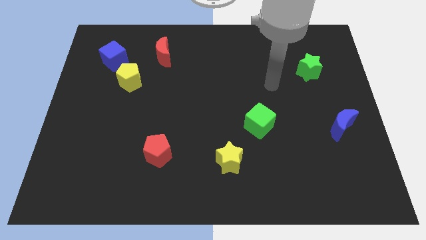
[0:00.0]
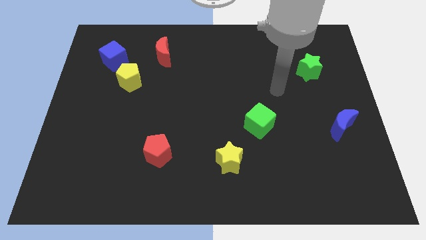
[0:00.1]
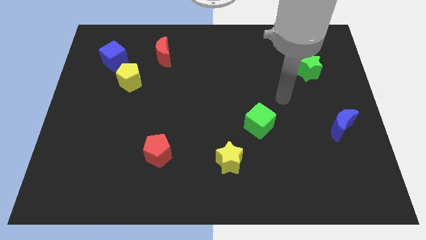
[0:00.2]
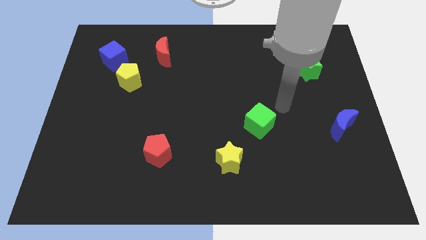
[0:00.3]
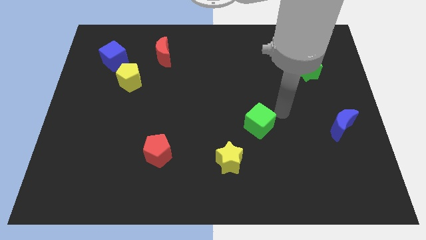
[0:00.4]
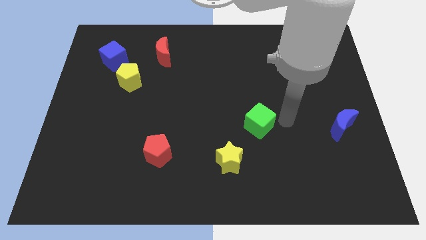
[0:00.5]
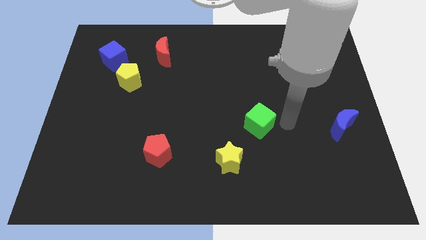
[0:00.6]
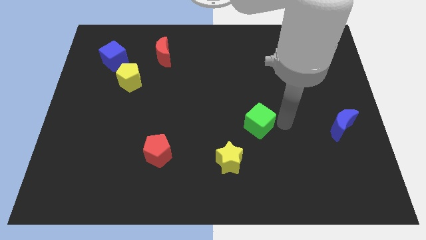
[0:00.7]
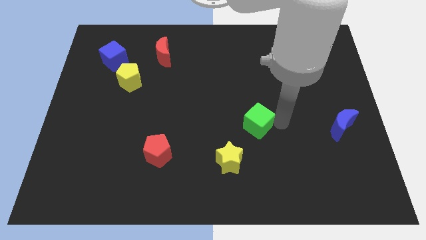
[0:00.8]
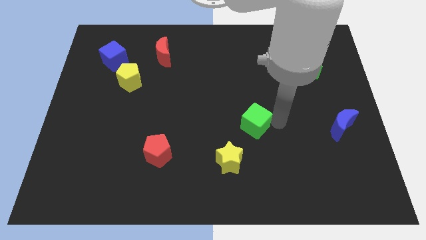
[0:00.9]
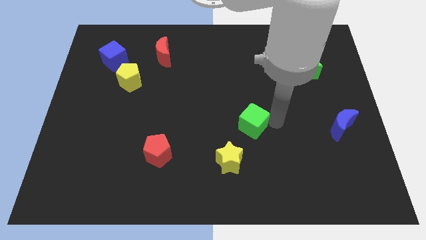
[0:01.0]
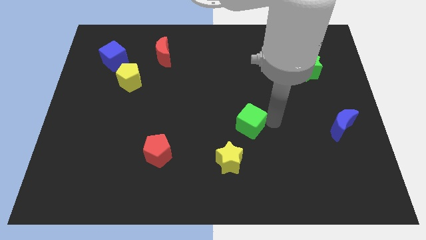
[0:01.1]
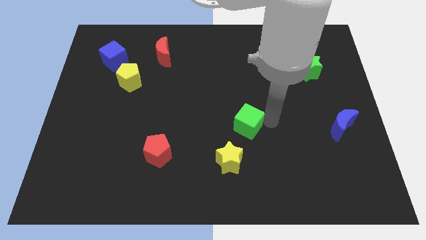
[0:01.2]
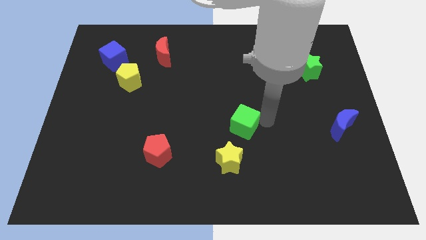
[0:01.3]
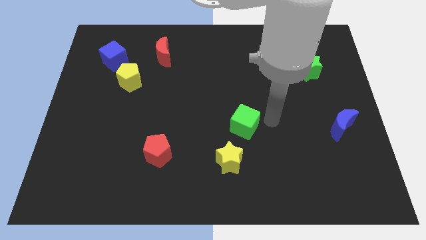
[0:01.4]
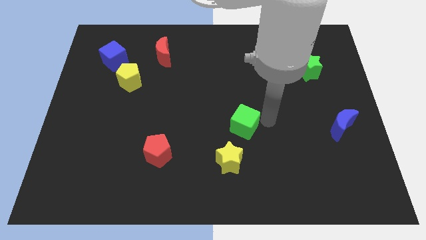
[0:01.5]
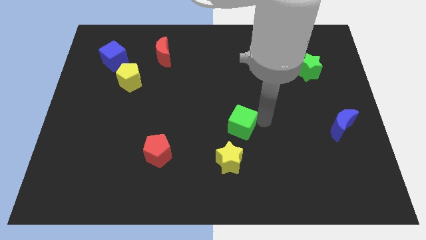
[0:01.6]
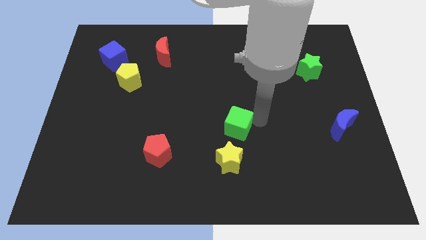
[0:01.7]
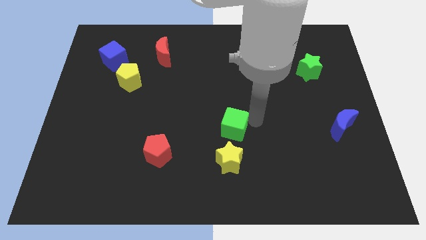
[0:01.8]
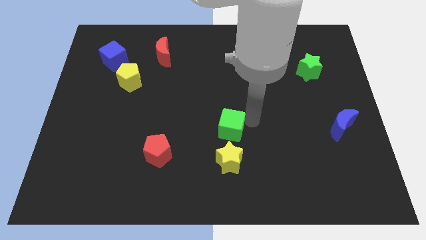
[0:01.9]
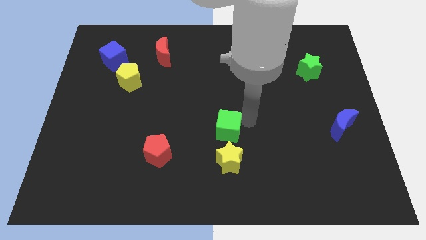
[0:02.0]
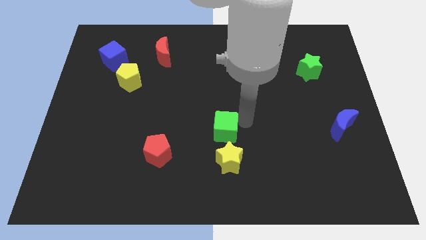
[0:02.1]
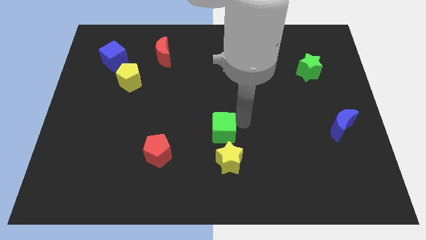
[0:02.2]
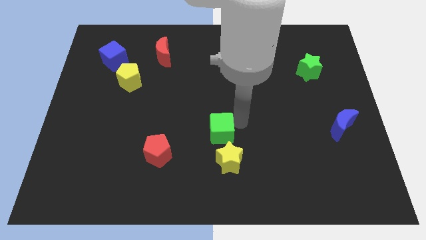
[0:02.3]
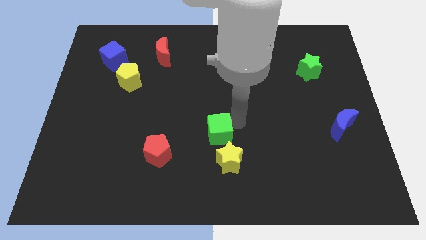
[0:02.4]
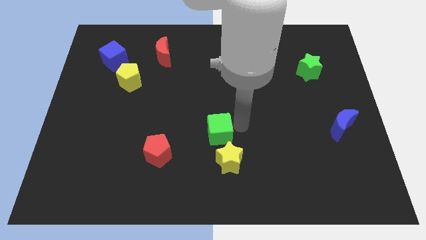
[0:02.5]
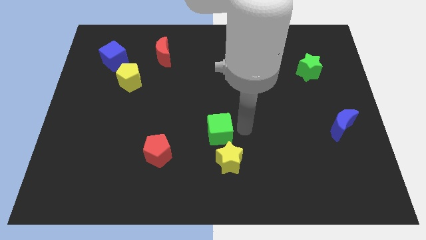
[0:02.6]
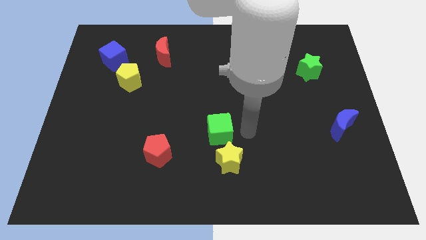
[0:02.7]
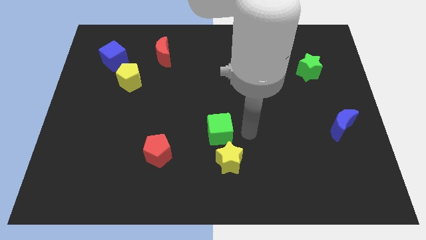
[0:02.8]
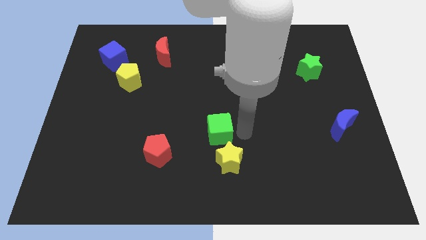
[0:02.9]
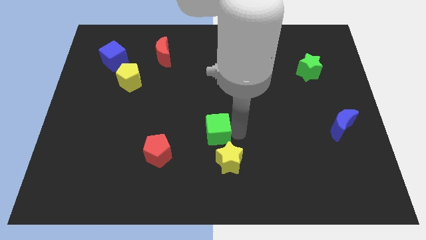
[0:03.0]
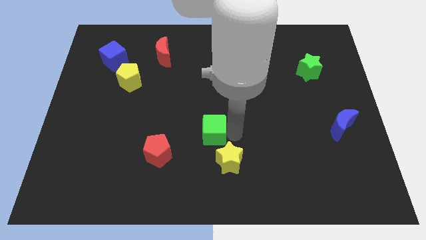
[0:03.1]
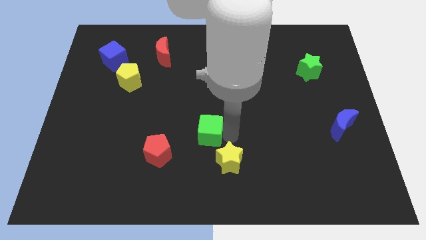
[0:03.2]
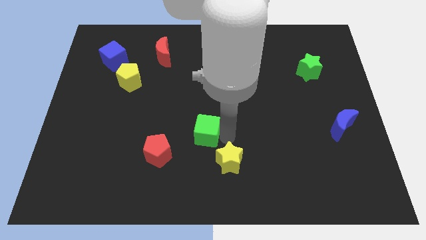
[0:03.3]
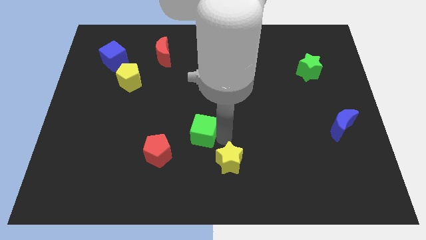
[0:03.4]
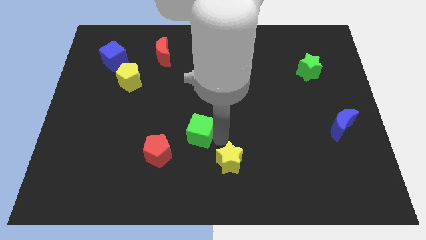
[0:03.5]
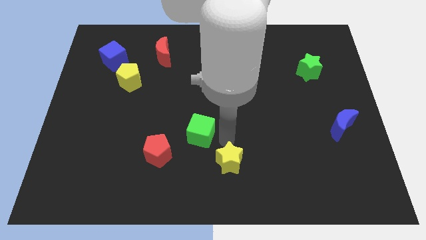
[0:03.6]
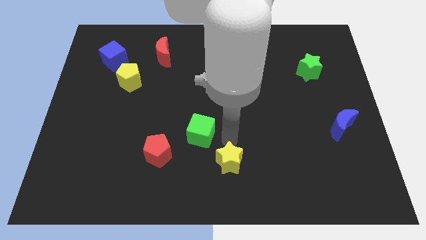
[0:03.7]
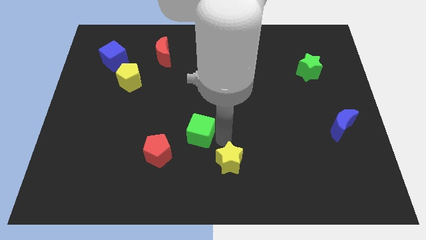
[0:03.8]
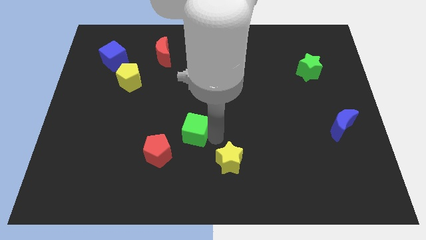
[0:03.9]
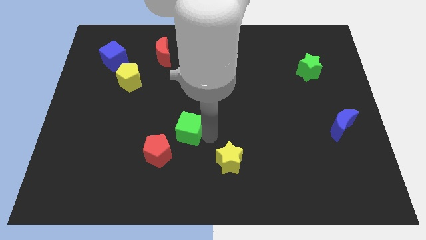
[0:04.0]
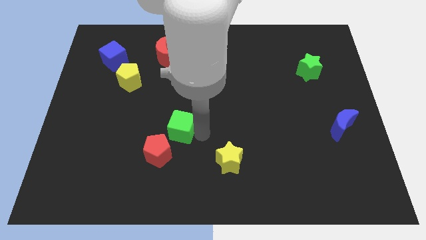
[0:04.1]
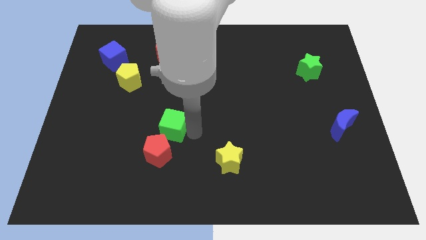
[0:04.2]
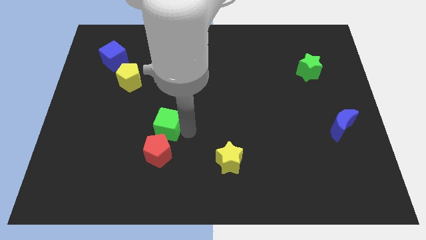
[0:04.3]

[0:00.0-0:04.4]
slide the green cube left

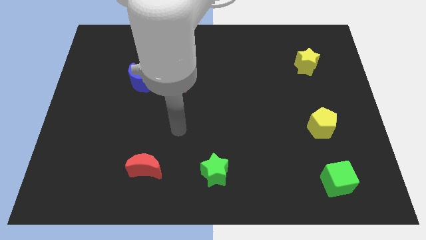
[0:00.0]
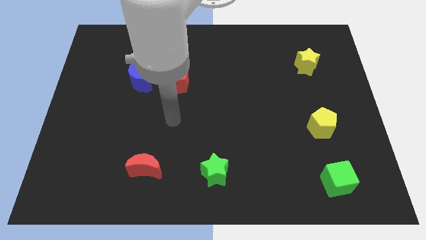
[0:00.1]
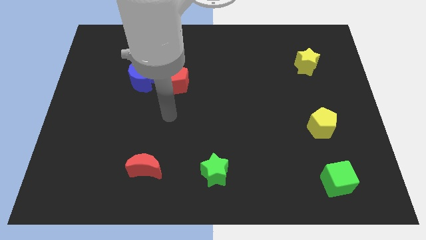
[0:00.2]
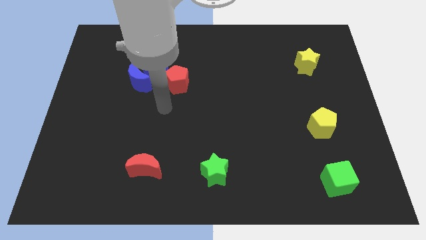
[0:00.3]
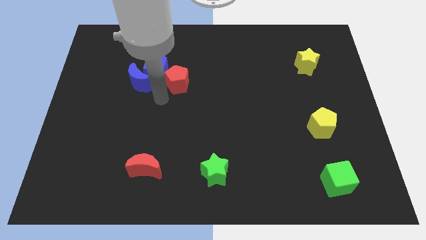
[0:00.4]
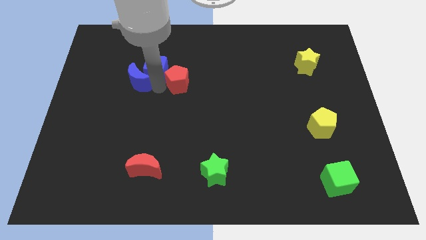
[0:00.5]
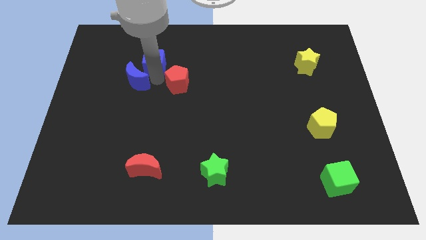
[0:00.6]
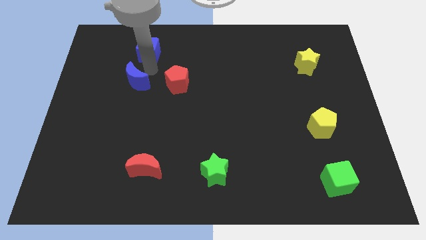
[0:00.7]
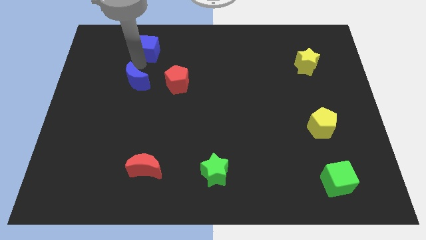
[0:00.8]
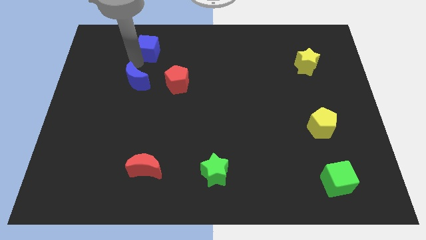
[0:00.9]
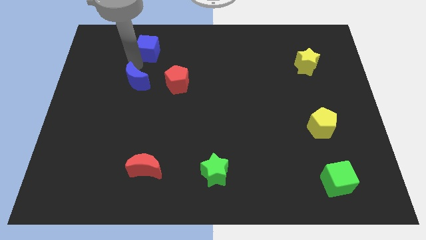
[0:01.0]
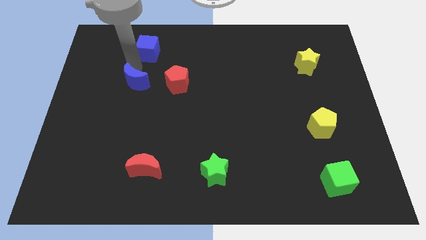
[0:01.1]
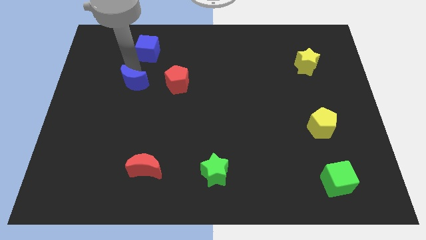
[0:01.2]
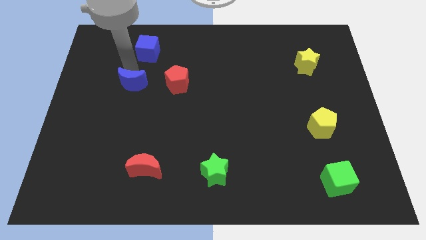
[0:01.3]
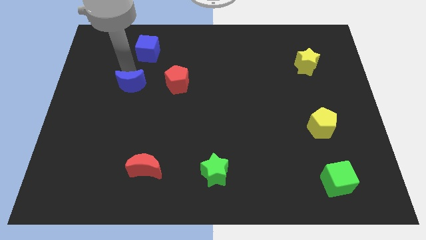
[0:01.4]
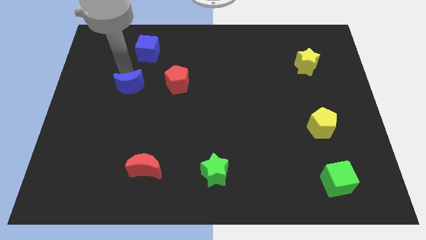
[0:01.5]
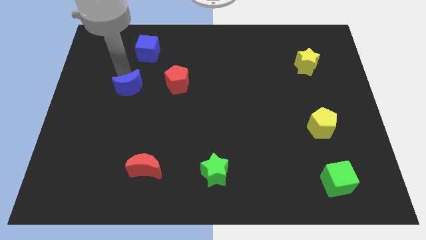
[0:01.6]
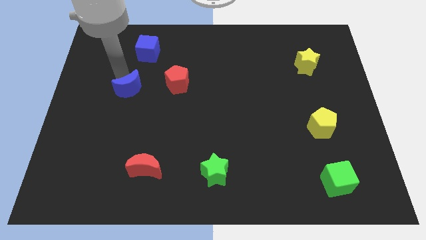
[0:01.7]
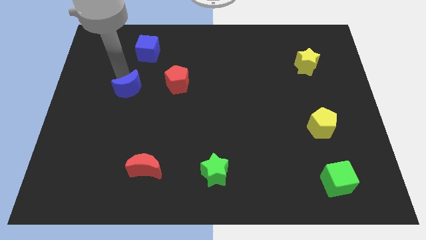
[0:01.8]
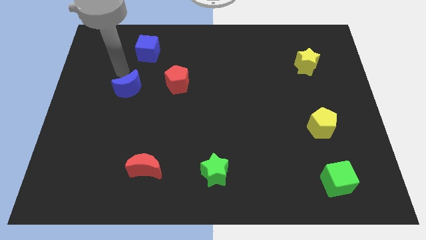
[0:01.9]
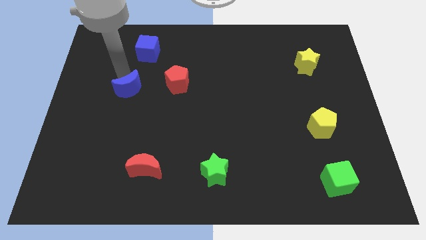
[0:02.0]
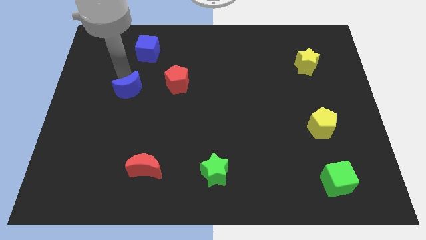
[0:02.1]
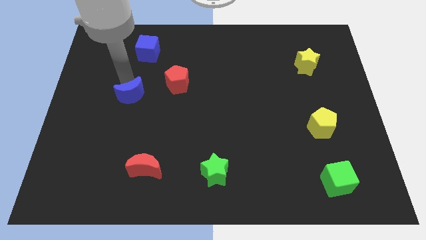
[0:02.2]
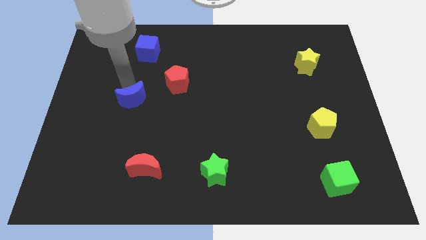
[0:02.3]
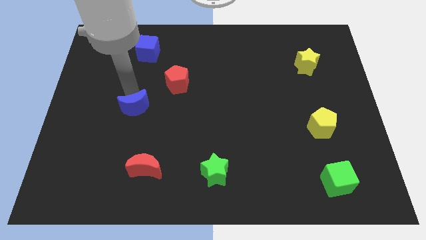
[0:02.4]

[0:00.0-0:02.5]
move the blue moon somewhat downwards

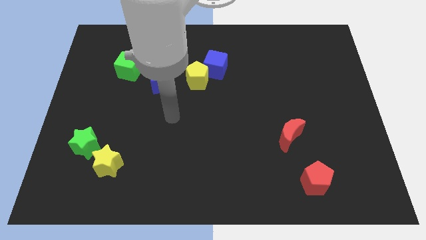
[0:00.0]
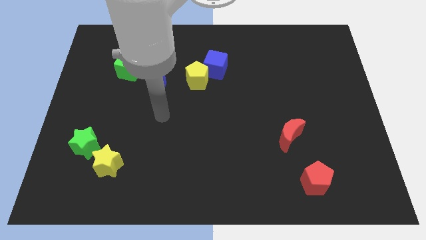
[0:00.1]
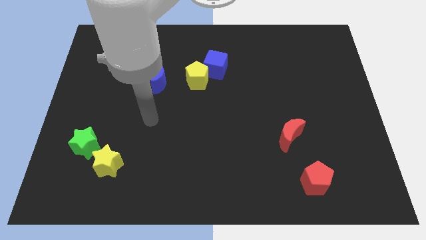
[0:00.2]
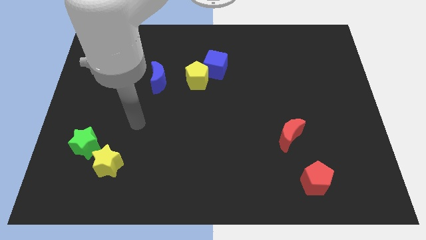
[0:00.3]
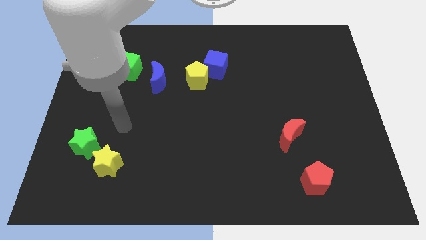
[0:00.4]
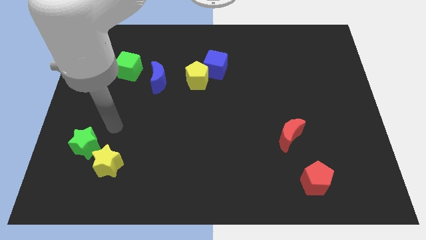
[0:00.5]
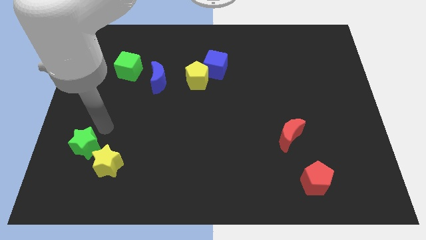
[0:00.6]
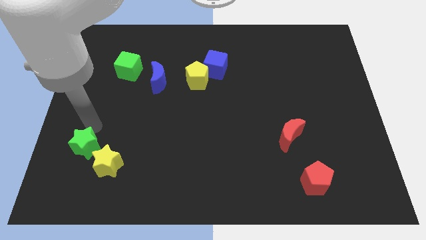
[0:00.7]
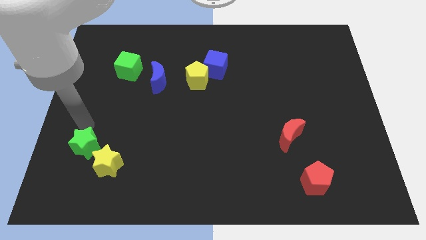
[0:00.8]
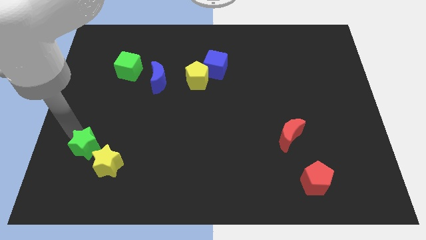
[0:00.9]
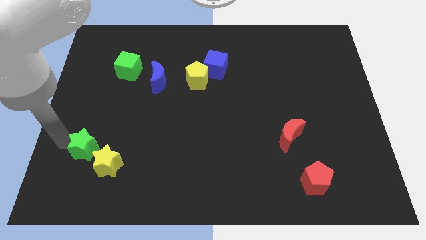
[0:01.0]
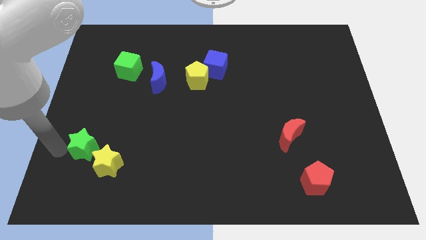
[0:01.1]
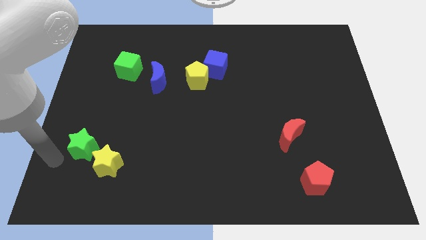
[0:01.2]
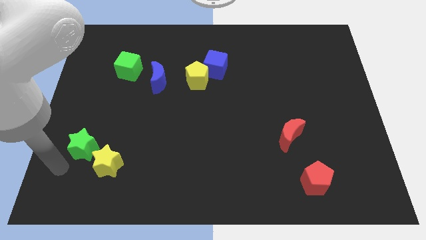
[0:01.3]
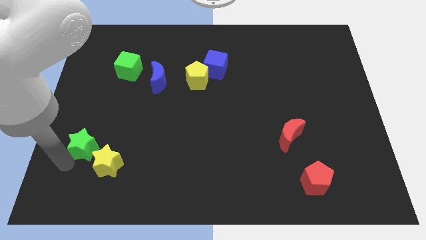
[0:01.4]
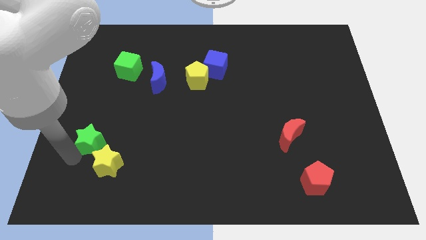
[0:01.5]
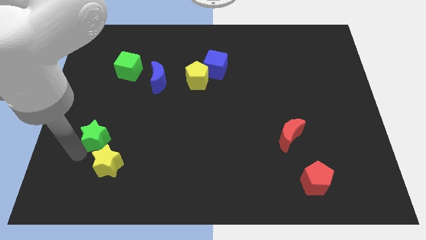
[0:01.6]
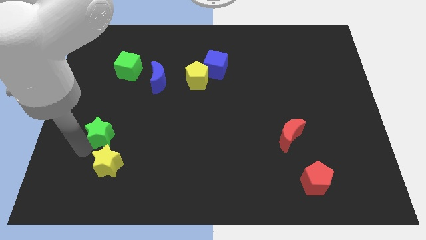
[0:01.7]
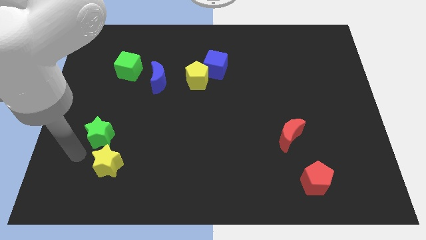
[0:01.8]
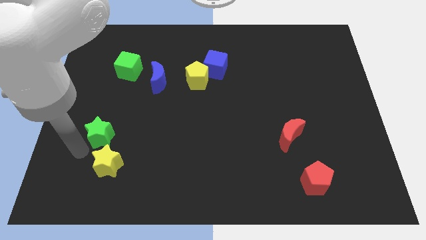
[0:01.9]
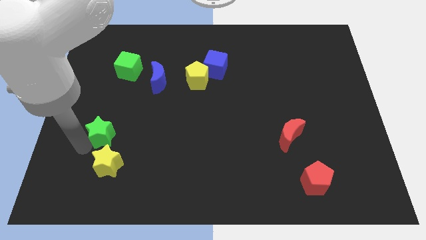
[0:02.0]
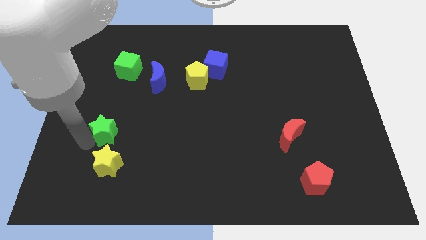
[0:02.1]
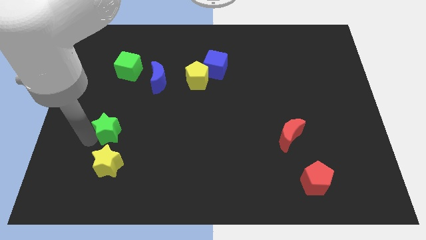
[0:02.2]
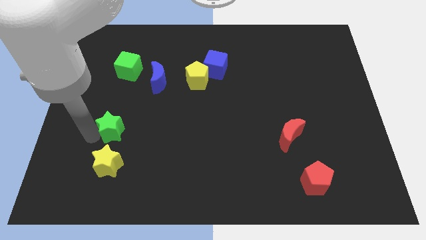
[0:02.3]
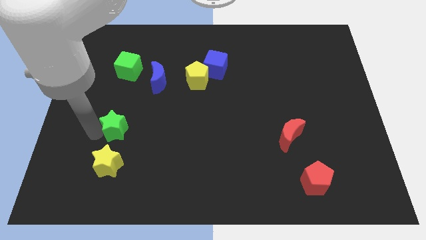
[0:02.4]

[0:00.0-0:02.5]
slightly move the green star diagonally up and right
